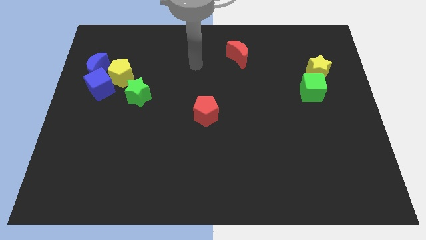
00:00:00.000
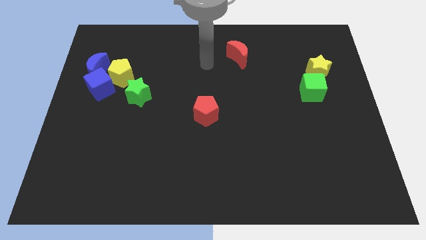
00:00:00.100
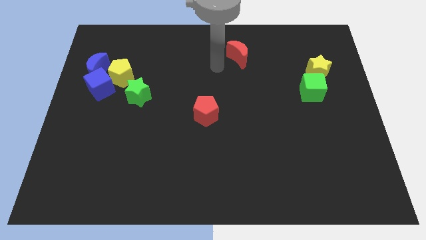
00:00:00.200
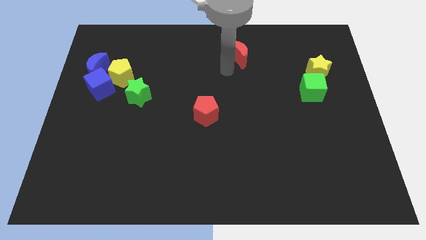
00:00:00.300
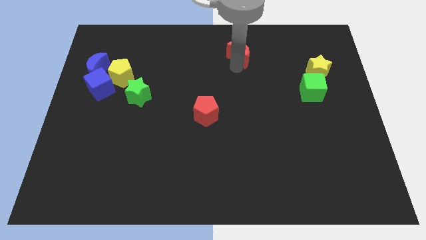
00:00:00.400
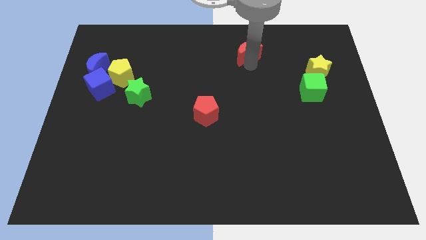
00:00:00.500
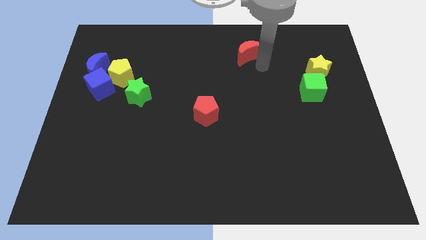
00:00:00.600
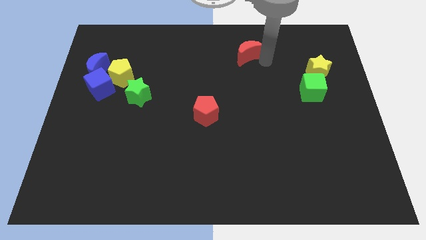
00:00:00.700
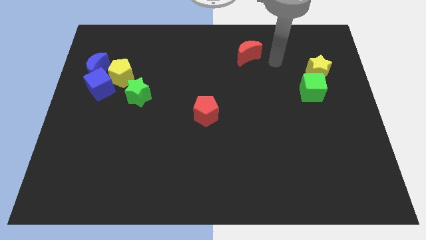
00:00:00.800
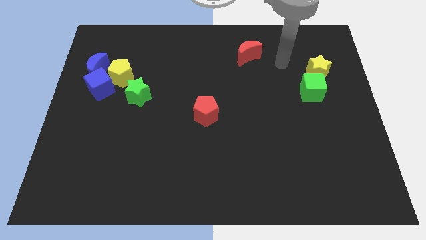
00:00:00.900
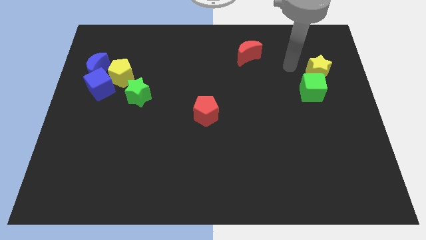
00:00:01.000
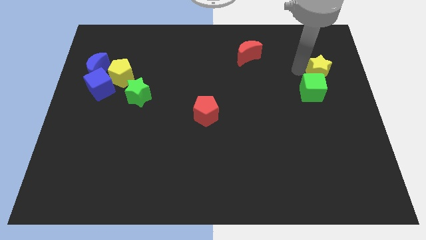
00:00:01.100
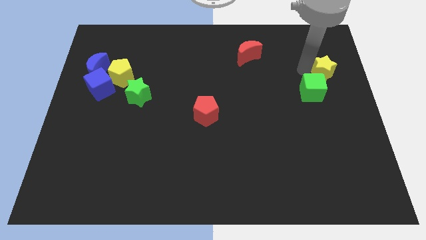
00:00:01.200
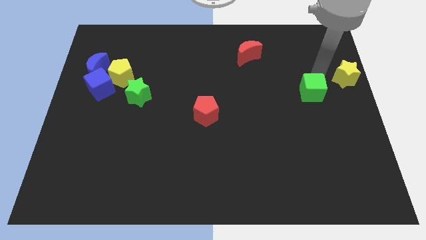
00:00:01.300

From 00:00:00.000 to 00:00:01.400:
separate the green cube from the yellow star

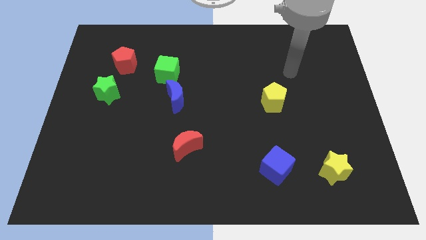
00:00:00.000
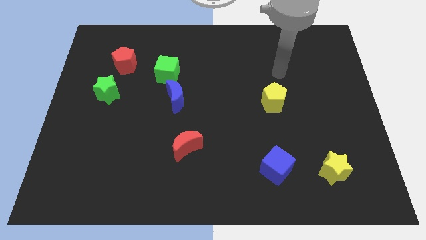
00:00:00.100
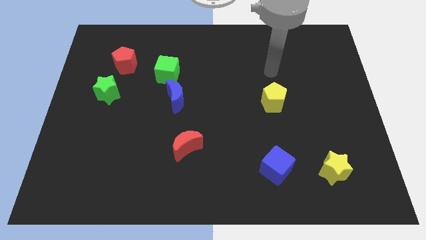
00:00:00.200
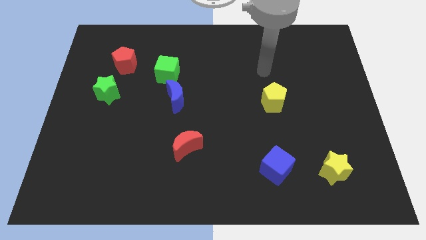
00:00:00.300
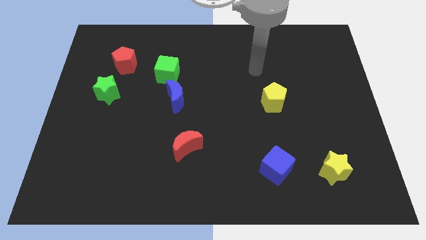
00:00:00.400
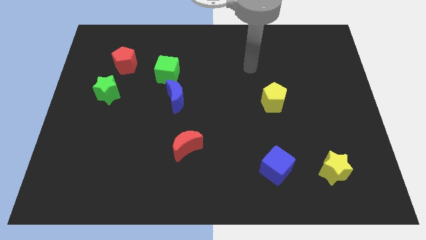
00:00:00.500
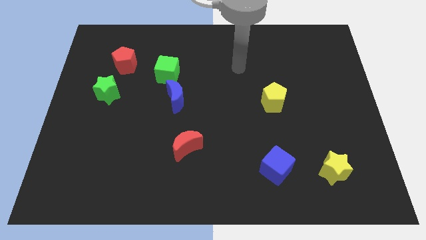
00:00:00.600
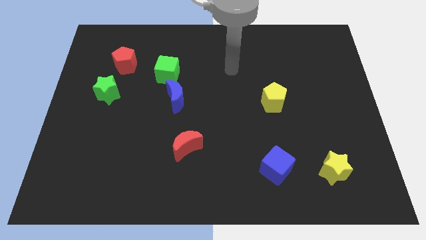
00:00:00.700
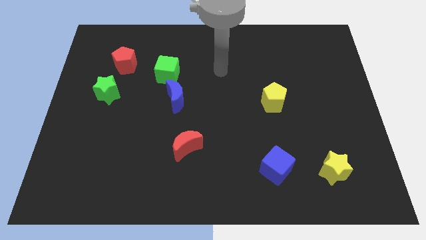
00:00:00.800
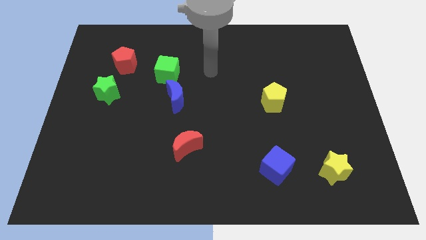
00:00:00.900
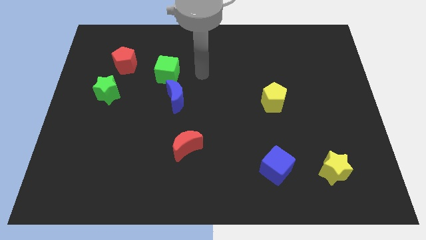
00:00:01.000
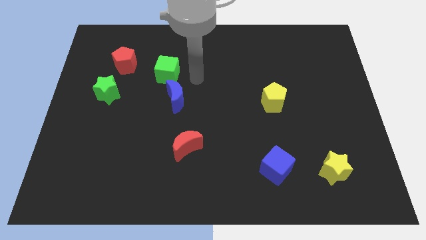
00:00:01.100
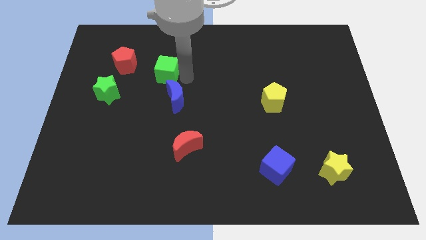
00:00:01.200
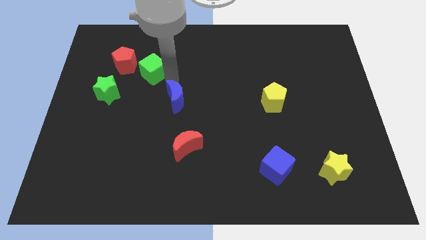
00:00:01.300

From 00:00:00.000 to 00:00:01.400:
separate the blue moon from the green cube

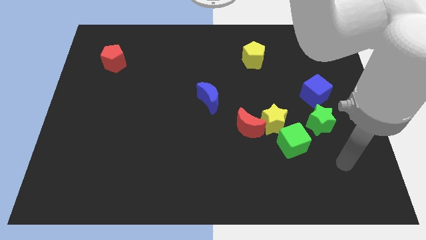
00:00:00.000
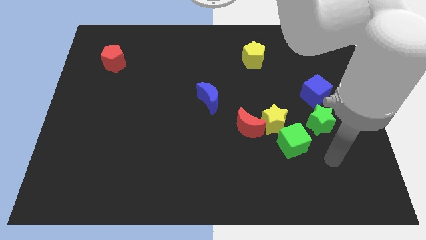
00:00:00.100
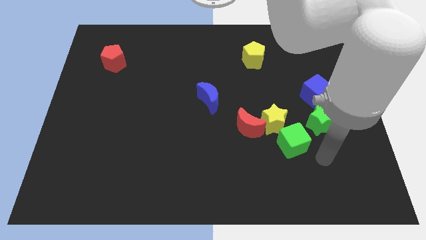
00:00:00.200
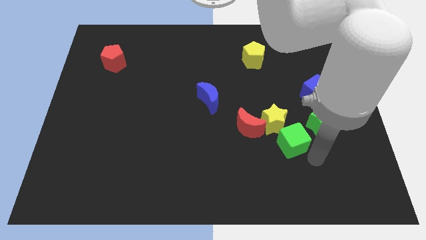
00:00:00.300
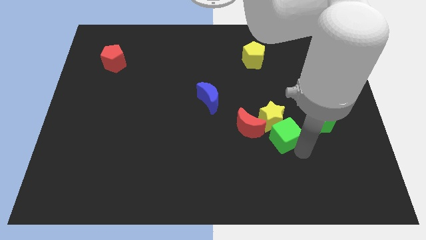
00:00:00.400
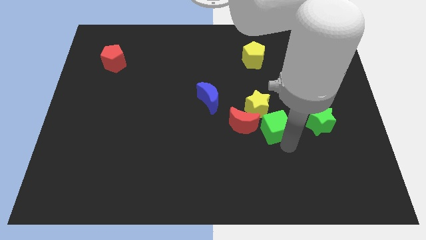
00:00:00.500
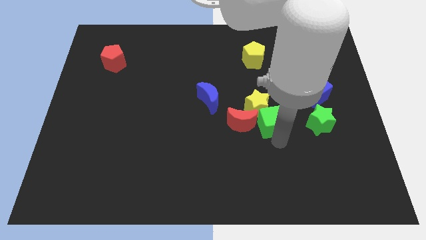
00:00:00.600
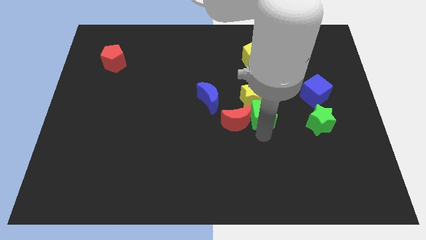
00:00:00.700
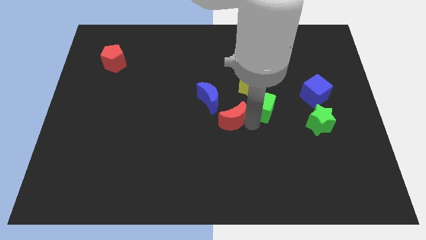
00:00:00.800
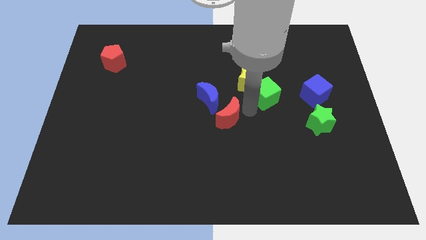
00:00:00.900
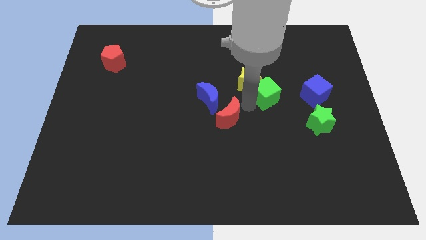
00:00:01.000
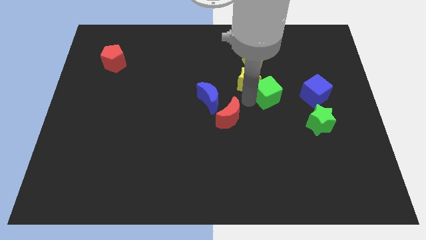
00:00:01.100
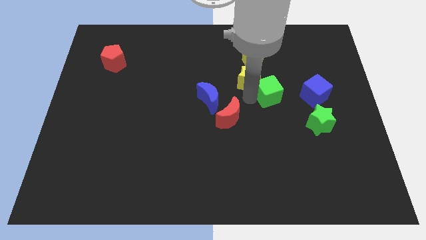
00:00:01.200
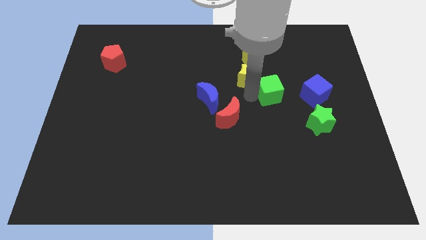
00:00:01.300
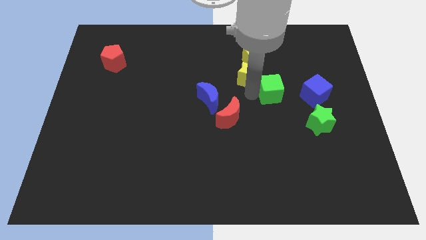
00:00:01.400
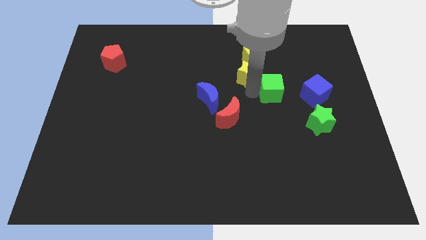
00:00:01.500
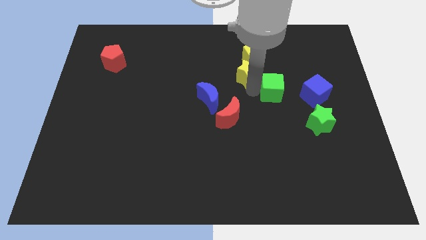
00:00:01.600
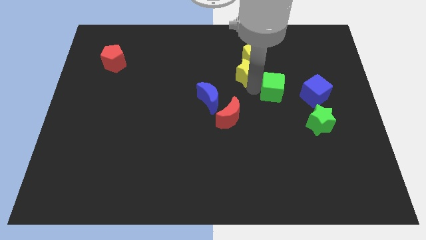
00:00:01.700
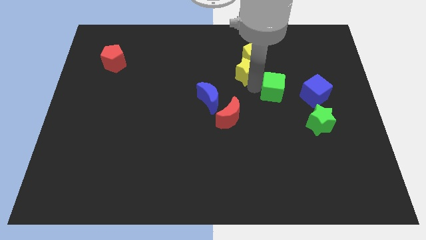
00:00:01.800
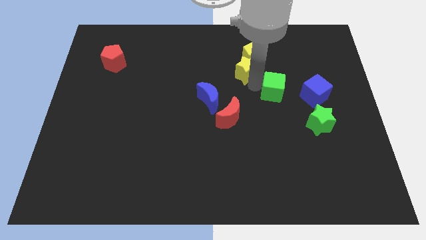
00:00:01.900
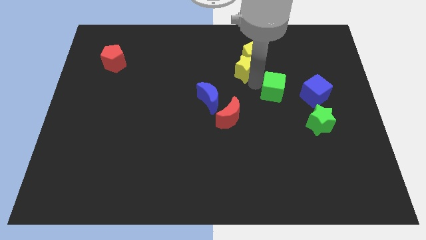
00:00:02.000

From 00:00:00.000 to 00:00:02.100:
move the yellow star away from the red moon and green cube

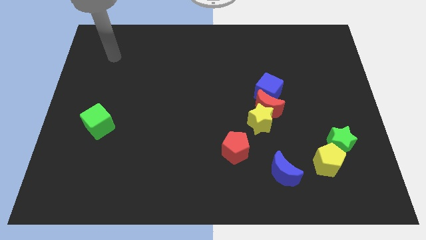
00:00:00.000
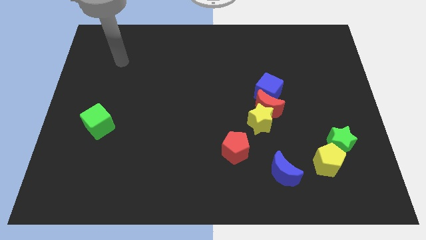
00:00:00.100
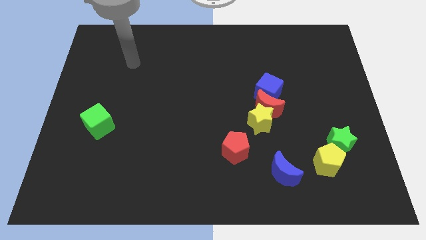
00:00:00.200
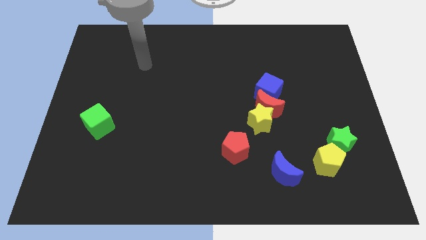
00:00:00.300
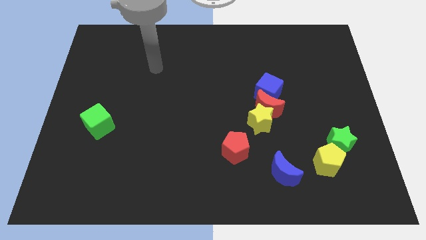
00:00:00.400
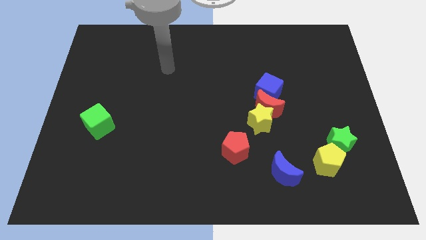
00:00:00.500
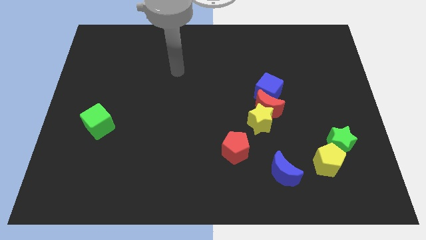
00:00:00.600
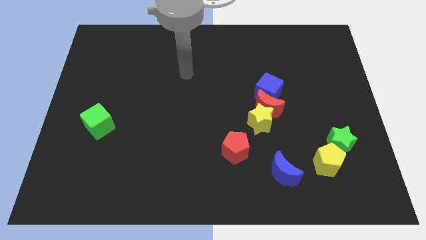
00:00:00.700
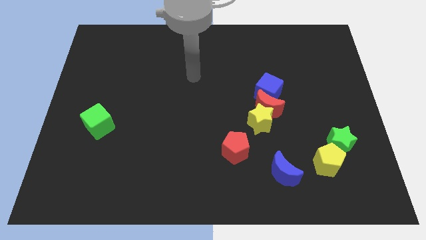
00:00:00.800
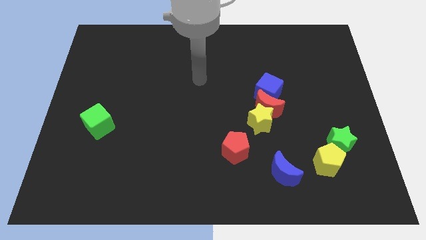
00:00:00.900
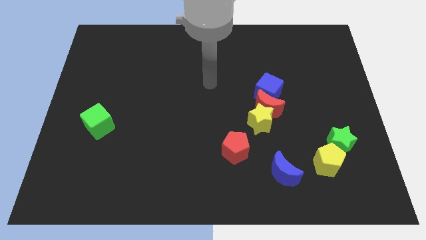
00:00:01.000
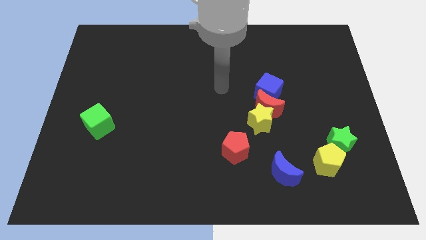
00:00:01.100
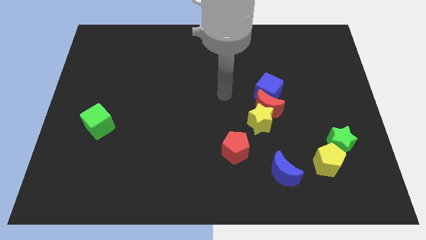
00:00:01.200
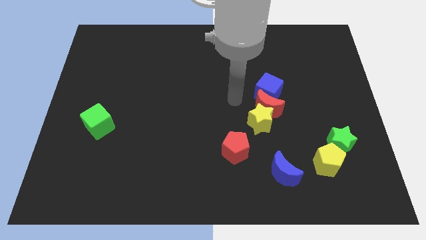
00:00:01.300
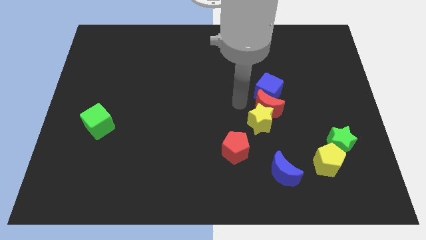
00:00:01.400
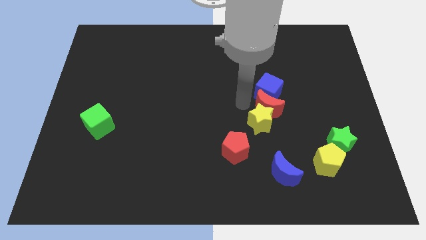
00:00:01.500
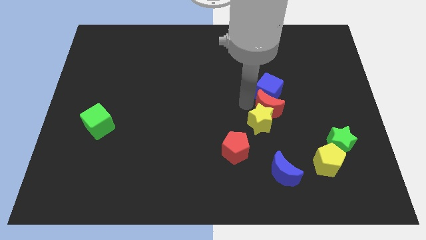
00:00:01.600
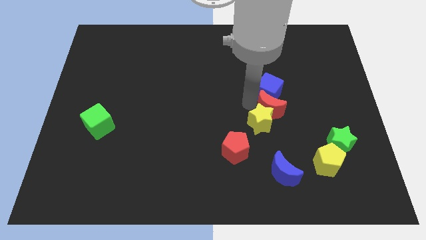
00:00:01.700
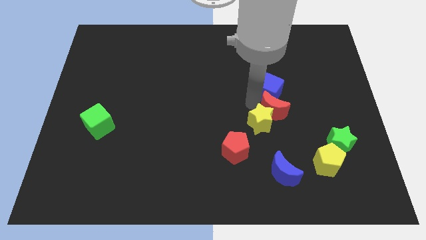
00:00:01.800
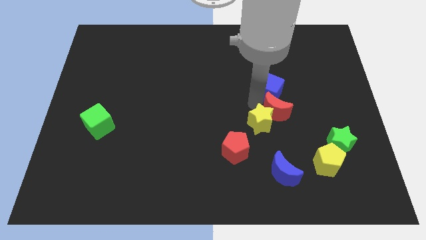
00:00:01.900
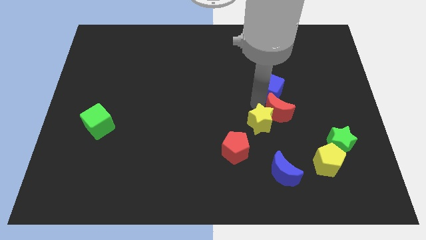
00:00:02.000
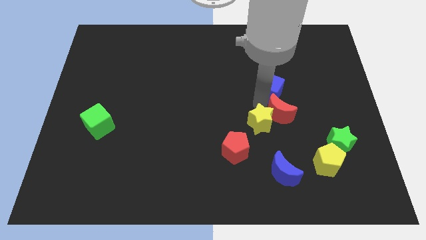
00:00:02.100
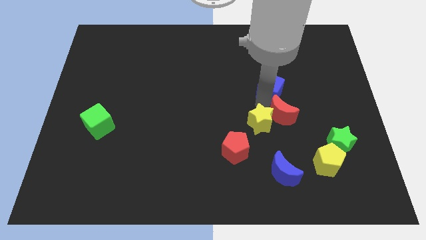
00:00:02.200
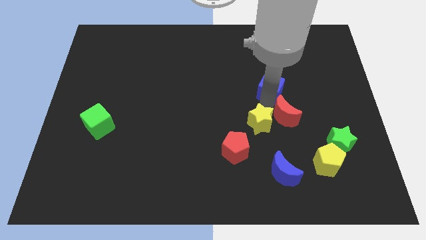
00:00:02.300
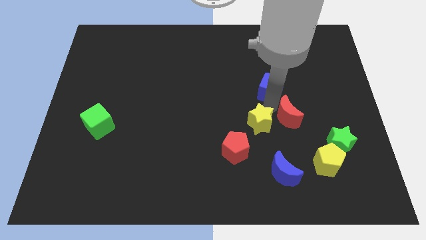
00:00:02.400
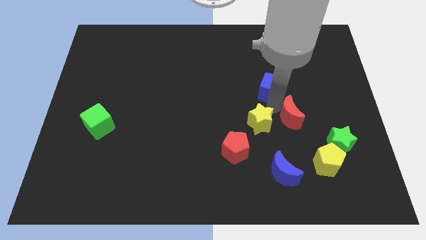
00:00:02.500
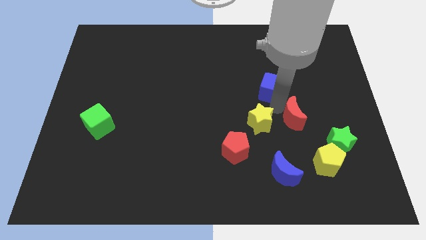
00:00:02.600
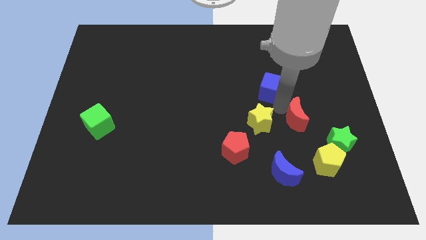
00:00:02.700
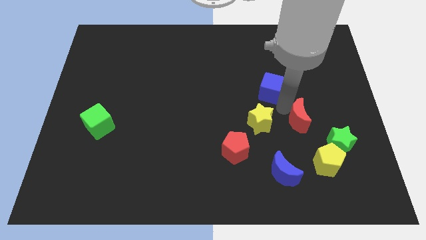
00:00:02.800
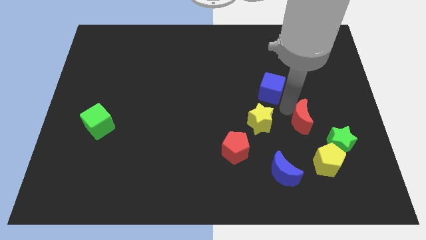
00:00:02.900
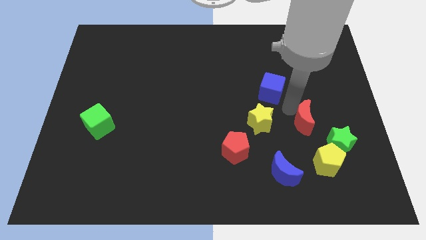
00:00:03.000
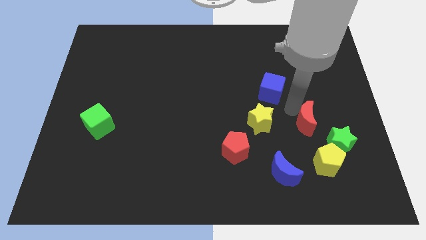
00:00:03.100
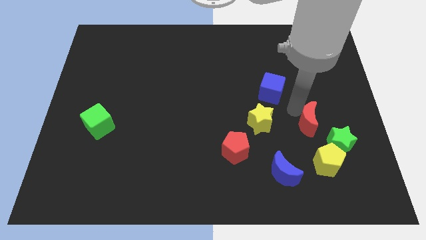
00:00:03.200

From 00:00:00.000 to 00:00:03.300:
separate the red moon from the yellow star and blue cube

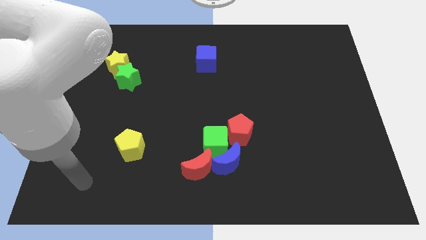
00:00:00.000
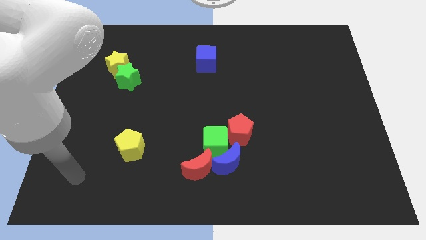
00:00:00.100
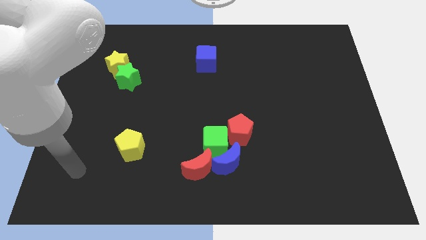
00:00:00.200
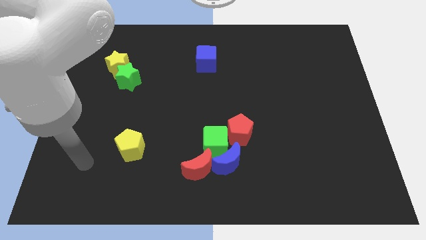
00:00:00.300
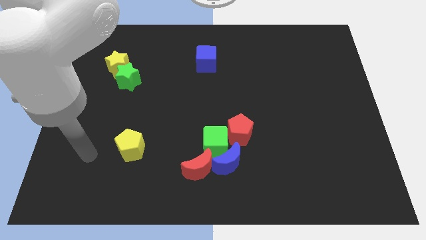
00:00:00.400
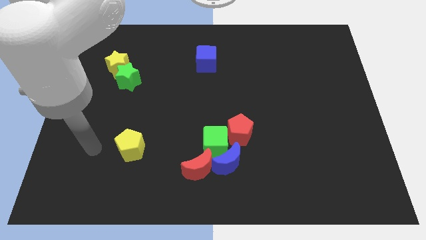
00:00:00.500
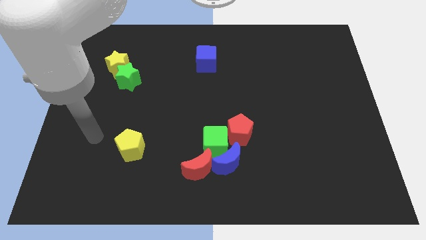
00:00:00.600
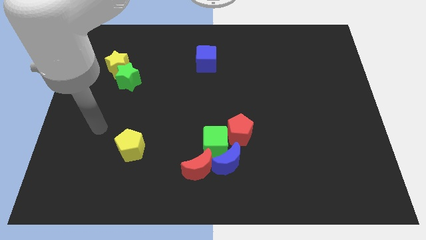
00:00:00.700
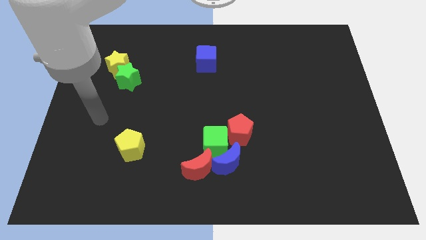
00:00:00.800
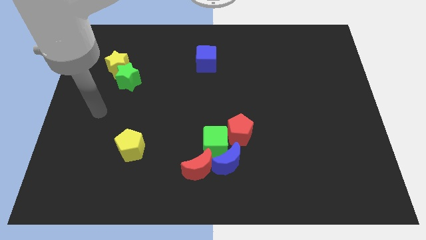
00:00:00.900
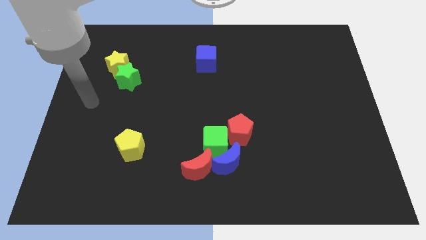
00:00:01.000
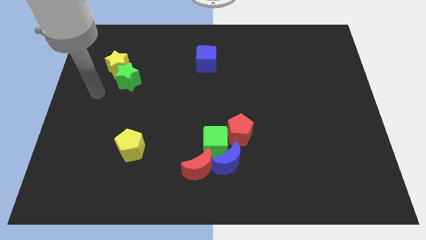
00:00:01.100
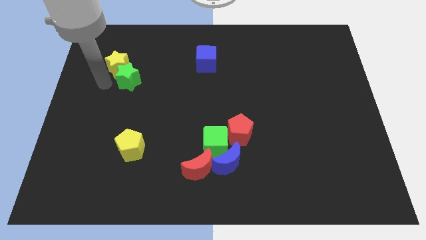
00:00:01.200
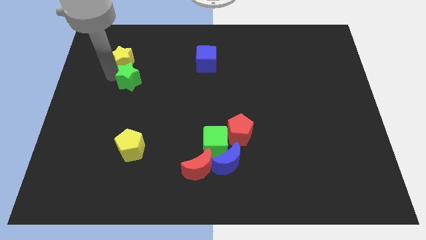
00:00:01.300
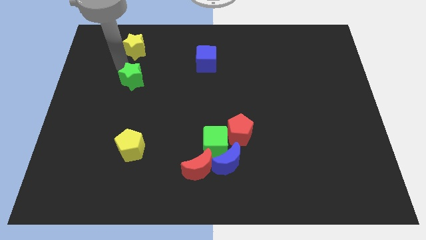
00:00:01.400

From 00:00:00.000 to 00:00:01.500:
move the green star away from the yellow star
